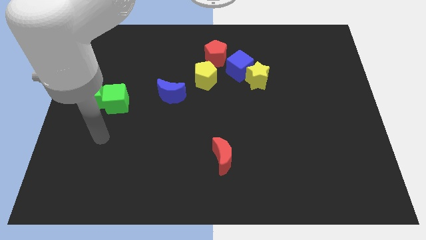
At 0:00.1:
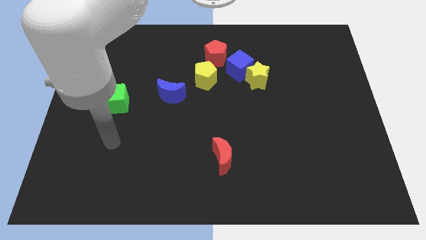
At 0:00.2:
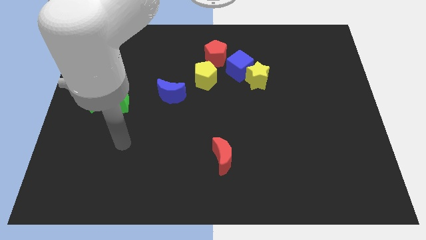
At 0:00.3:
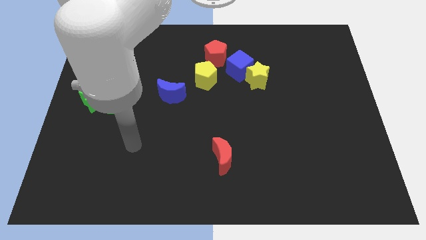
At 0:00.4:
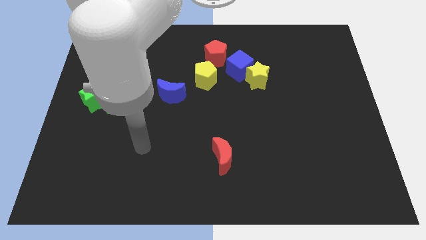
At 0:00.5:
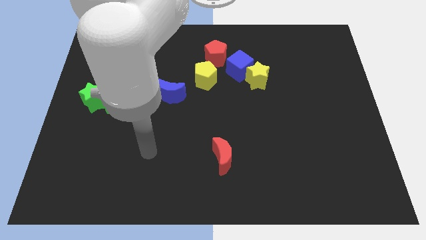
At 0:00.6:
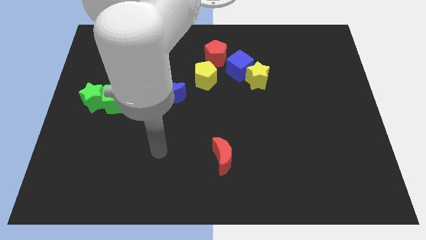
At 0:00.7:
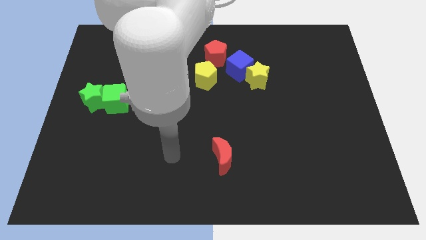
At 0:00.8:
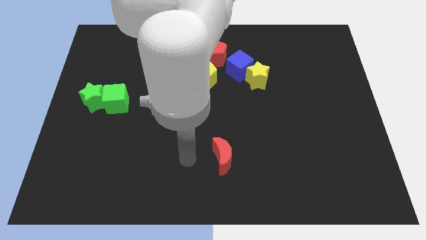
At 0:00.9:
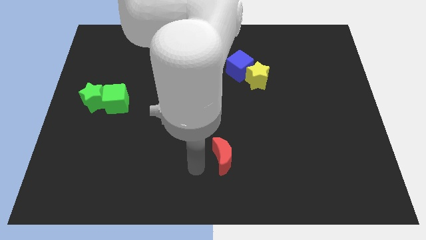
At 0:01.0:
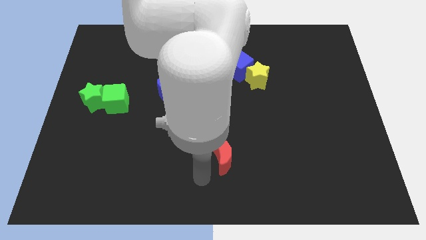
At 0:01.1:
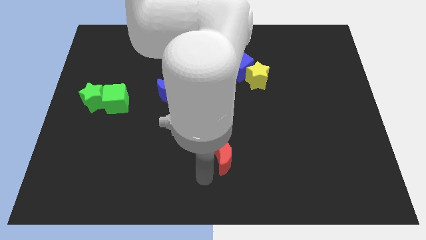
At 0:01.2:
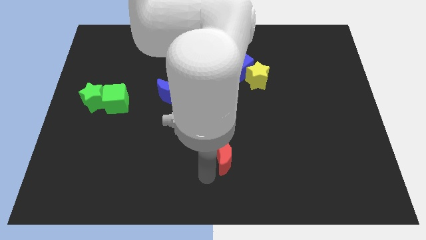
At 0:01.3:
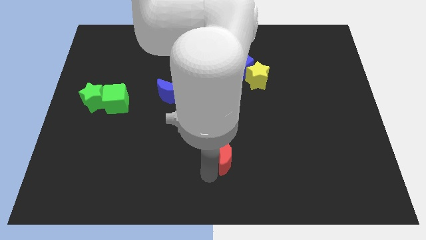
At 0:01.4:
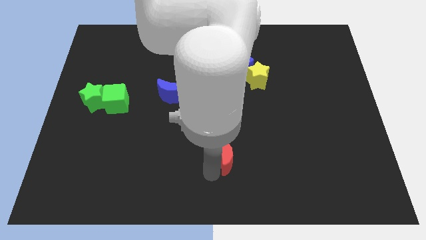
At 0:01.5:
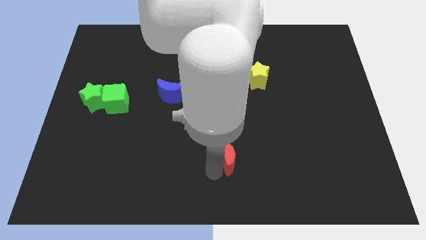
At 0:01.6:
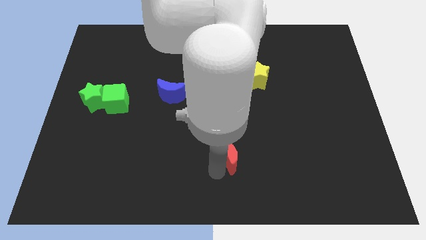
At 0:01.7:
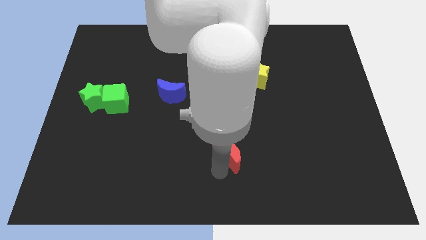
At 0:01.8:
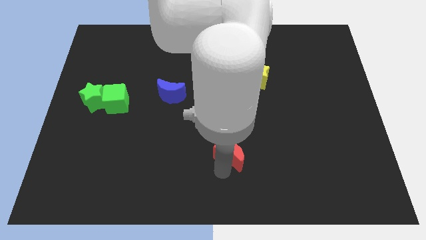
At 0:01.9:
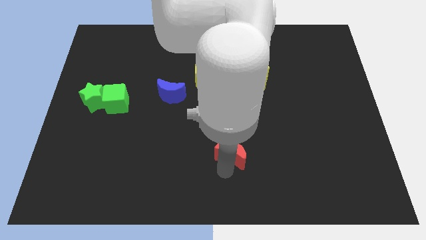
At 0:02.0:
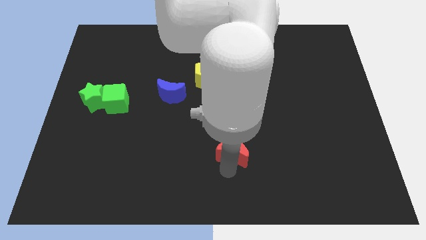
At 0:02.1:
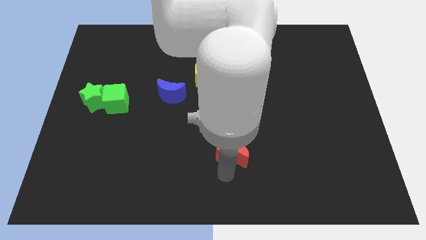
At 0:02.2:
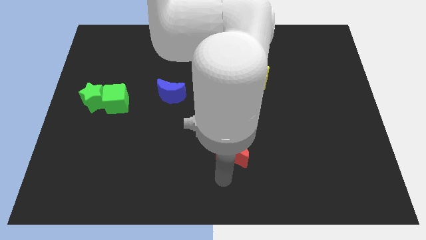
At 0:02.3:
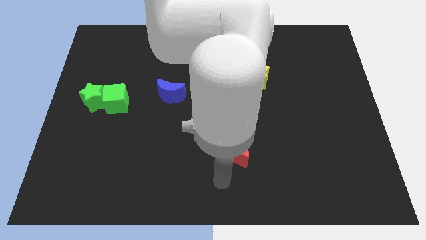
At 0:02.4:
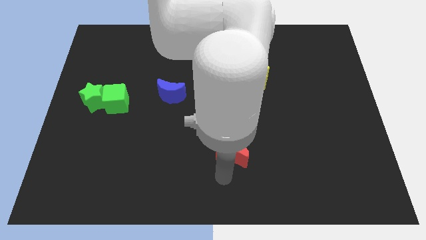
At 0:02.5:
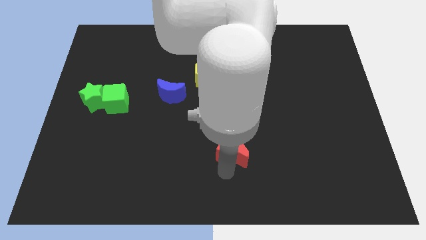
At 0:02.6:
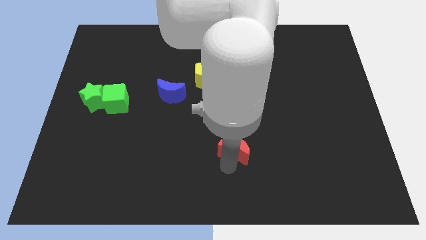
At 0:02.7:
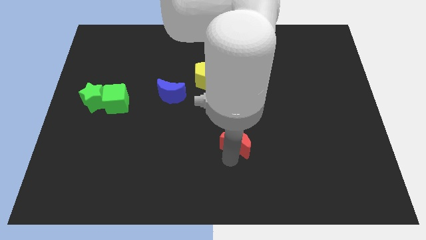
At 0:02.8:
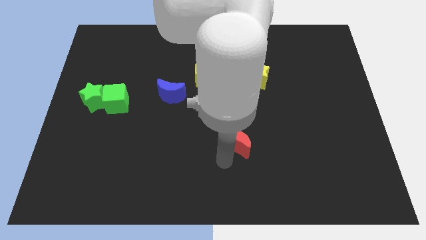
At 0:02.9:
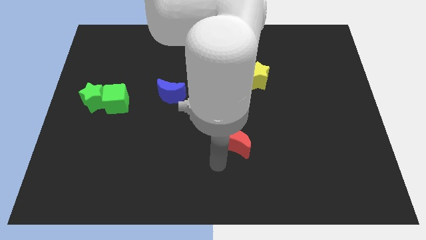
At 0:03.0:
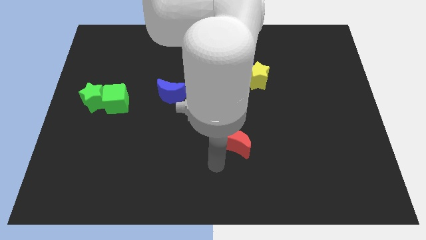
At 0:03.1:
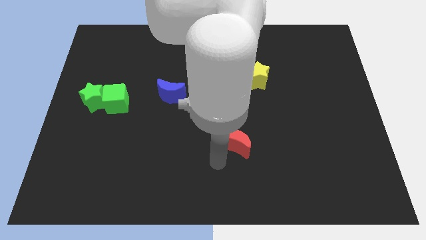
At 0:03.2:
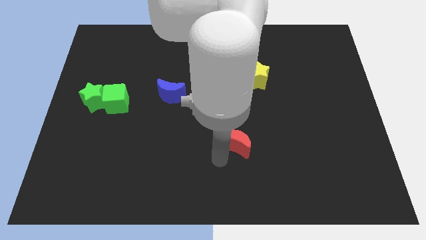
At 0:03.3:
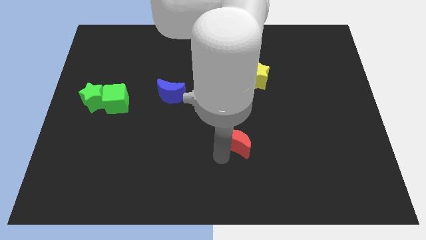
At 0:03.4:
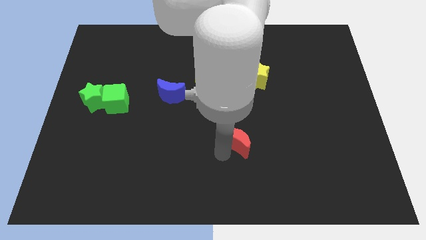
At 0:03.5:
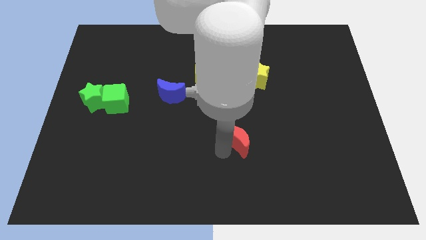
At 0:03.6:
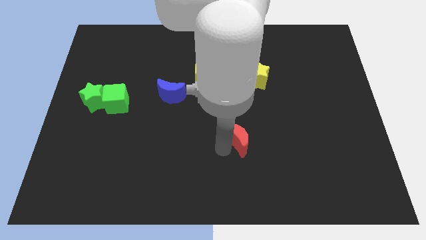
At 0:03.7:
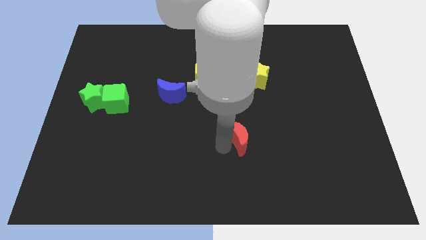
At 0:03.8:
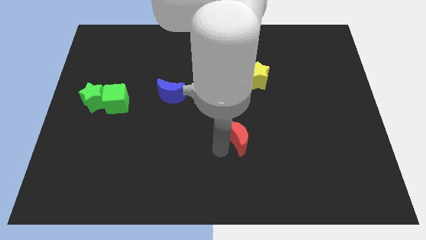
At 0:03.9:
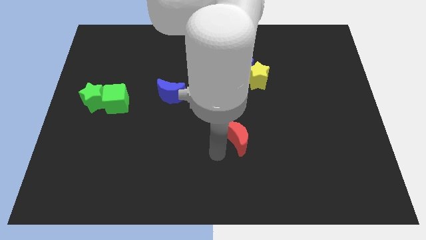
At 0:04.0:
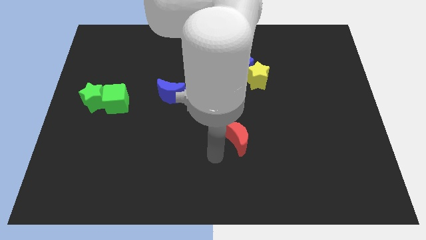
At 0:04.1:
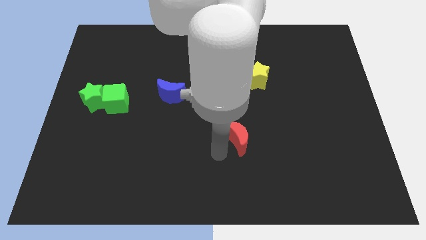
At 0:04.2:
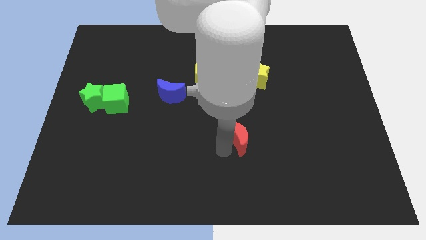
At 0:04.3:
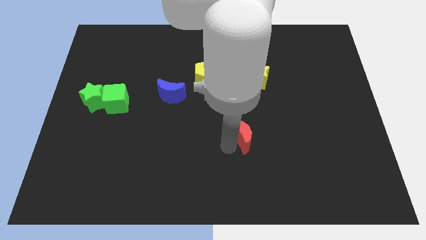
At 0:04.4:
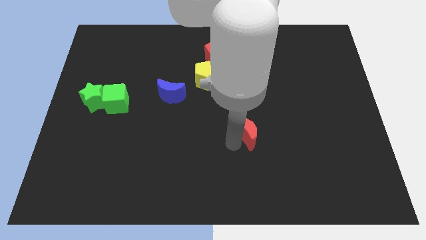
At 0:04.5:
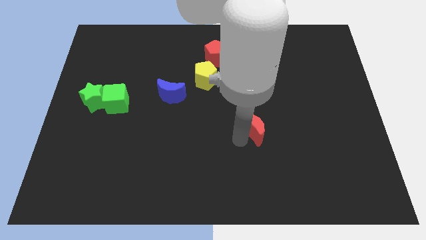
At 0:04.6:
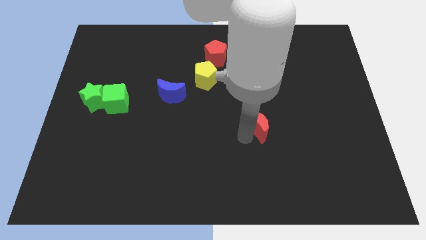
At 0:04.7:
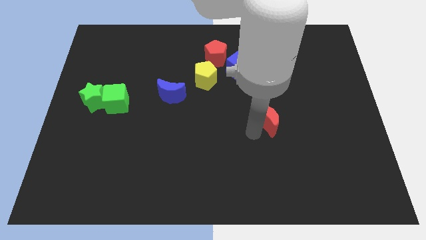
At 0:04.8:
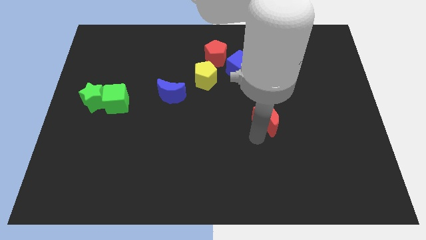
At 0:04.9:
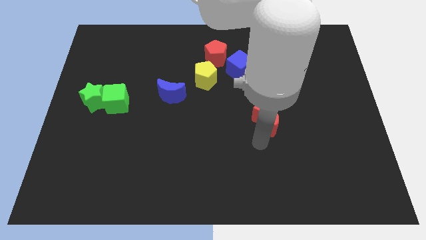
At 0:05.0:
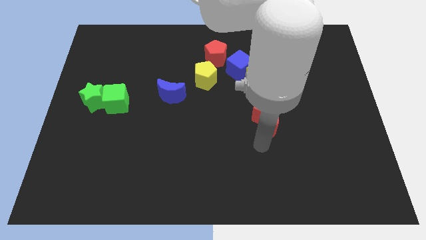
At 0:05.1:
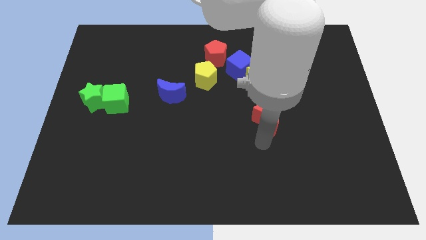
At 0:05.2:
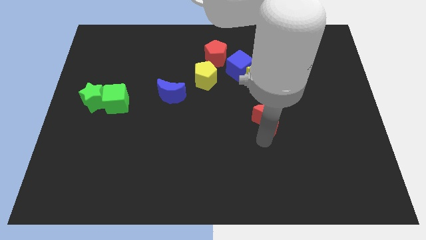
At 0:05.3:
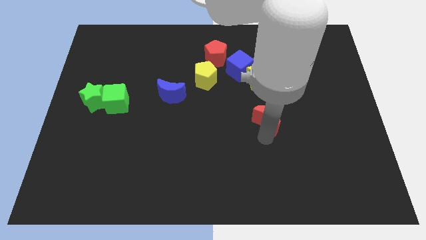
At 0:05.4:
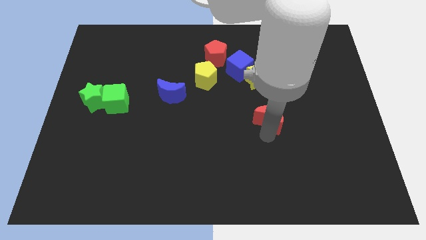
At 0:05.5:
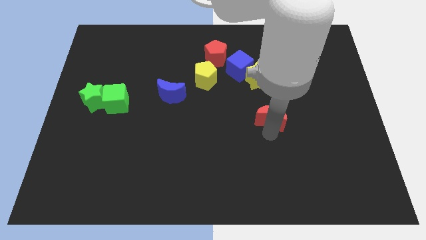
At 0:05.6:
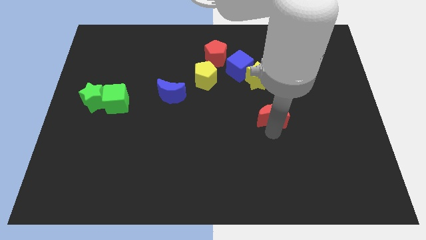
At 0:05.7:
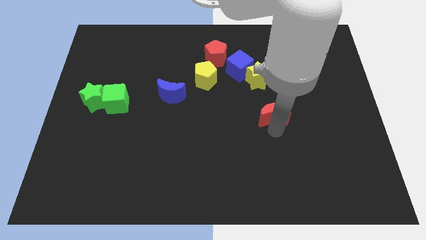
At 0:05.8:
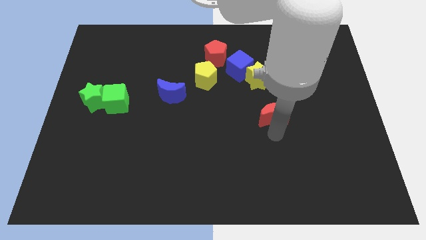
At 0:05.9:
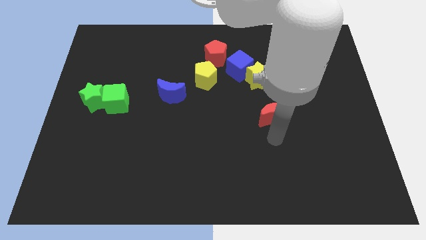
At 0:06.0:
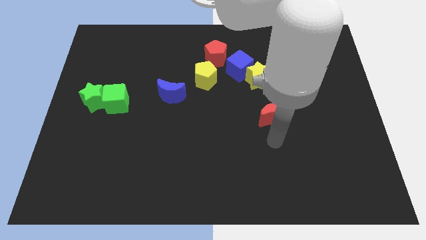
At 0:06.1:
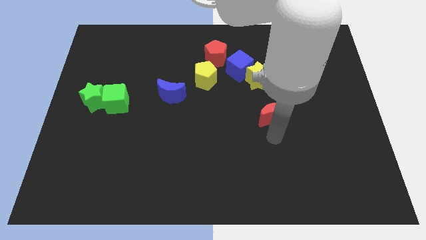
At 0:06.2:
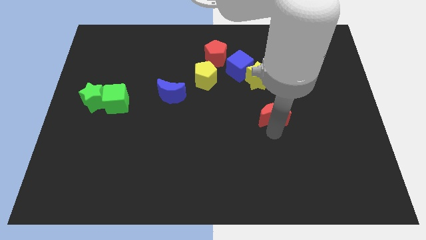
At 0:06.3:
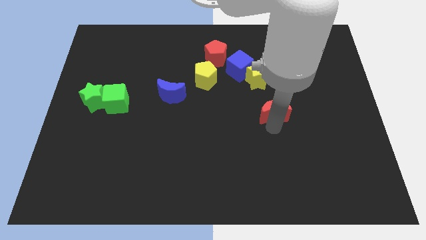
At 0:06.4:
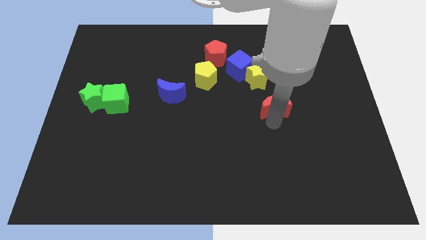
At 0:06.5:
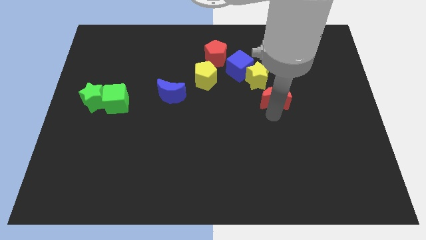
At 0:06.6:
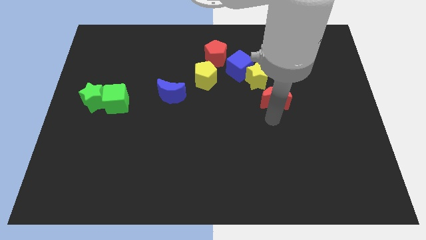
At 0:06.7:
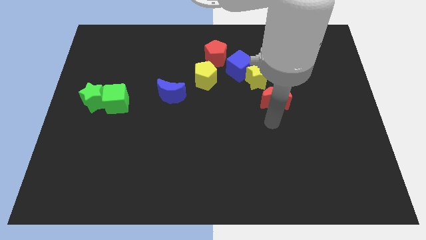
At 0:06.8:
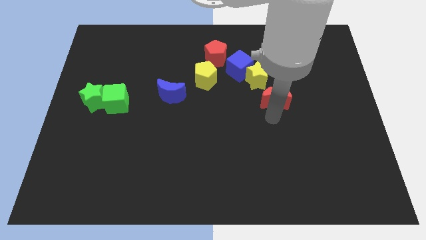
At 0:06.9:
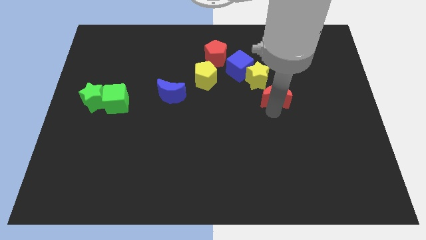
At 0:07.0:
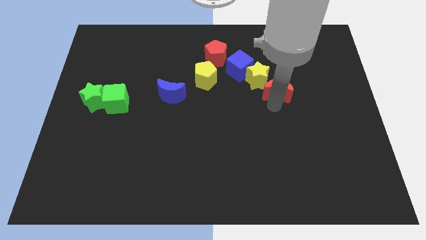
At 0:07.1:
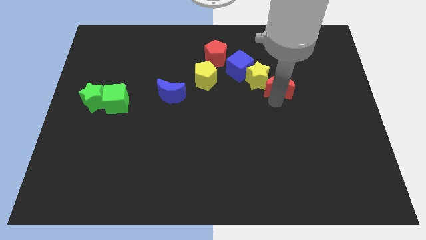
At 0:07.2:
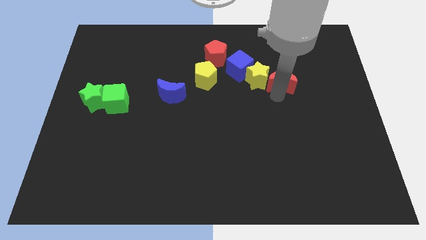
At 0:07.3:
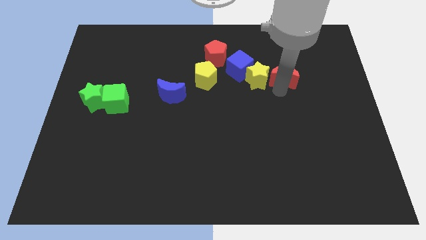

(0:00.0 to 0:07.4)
slide the red moon right of the blue cube
